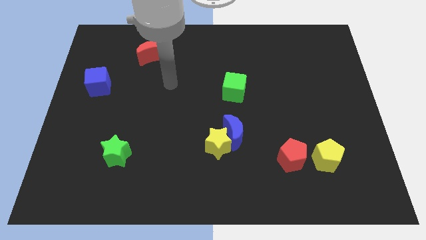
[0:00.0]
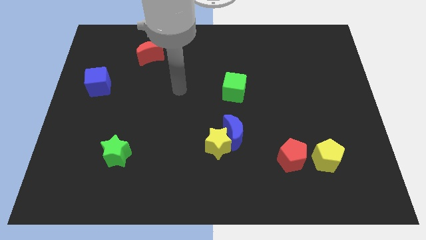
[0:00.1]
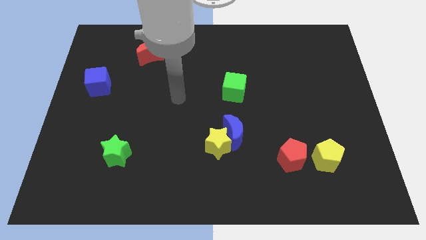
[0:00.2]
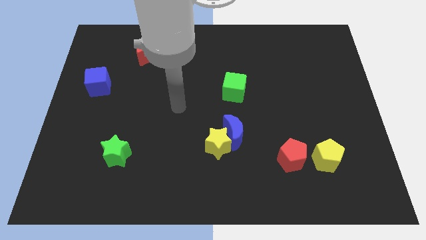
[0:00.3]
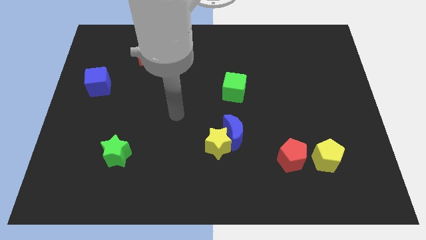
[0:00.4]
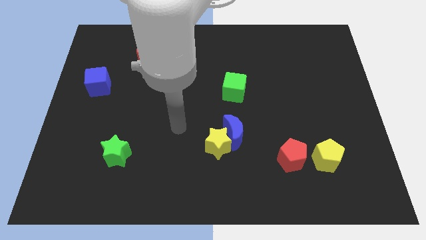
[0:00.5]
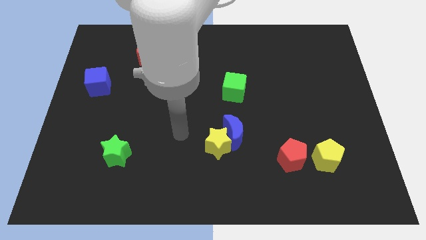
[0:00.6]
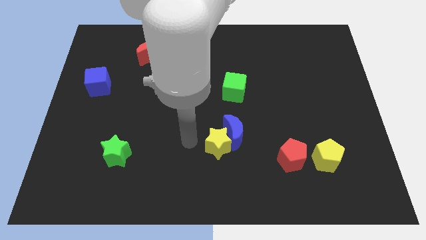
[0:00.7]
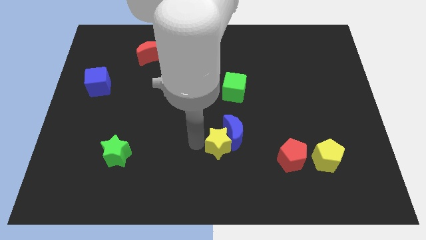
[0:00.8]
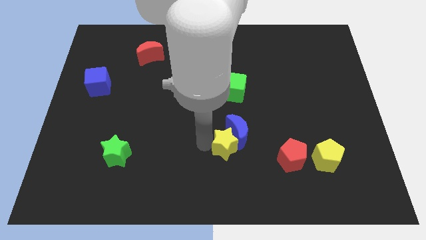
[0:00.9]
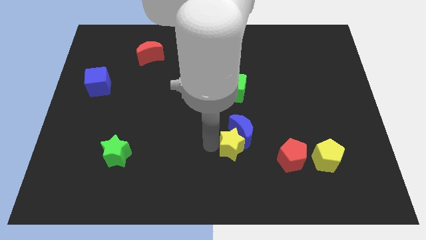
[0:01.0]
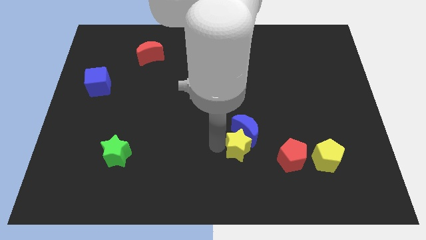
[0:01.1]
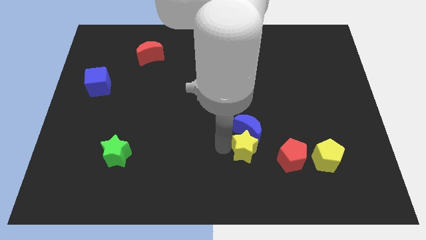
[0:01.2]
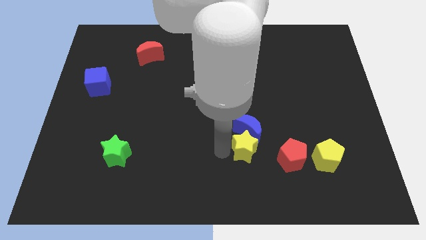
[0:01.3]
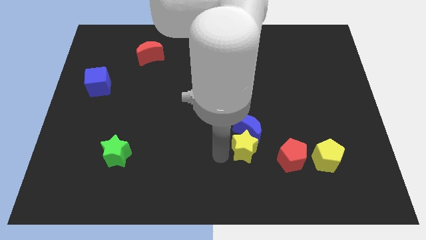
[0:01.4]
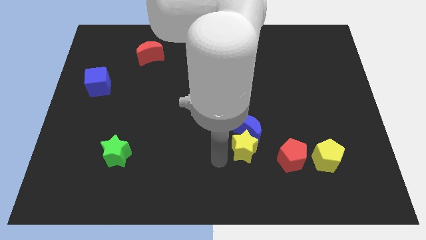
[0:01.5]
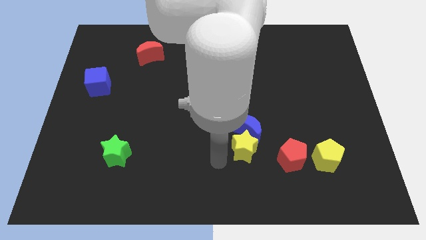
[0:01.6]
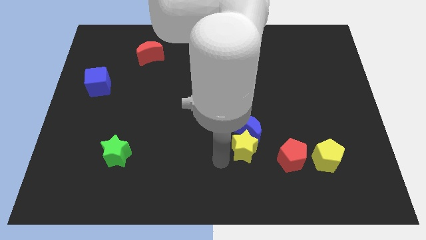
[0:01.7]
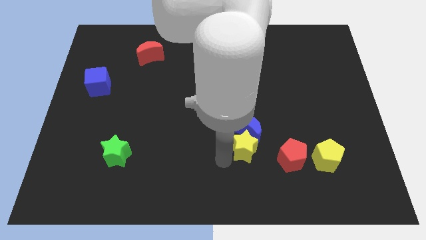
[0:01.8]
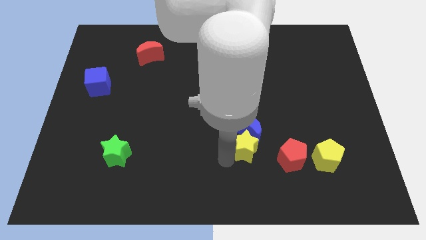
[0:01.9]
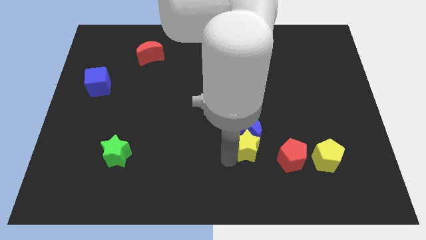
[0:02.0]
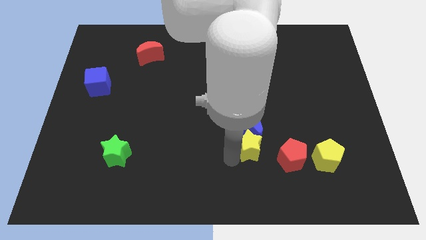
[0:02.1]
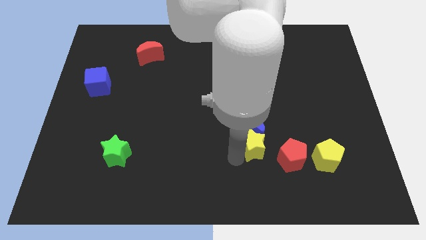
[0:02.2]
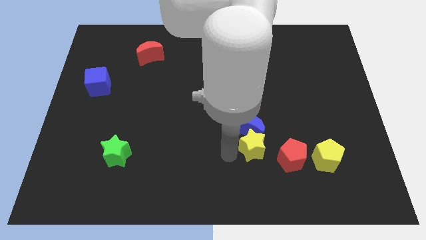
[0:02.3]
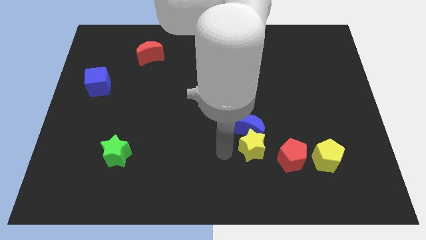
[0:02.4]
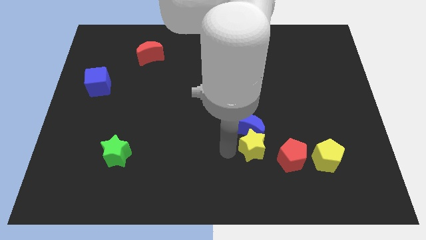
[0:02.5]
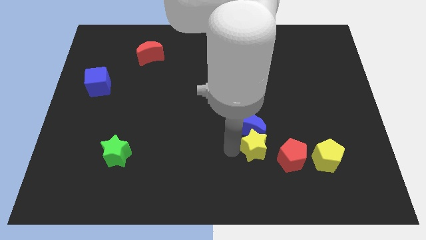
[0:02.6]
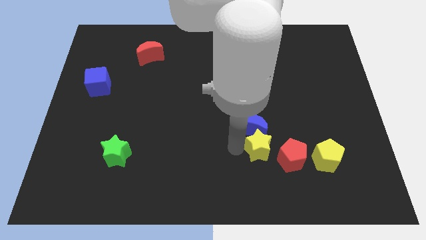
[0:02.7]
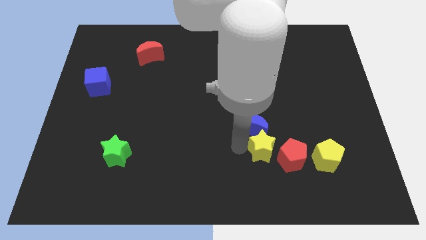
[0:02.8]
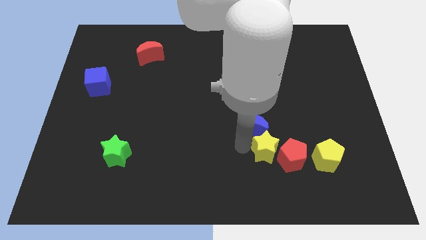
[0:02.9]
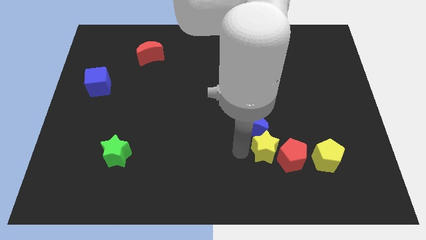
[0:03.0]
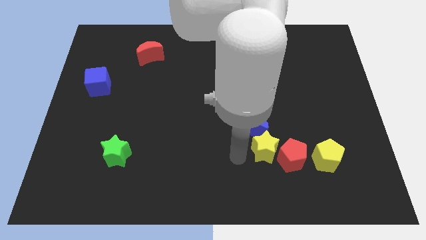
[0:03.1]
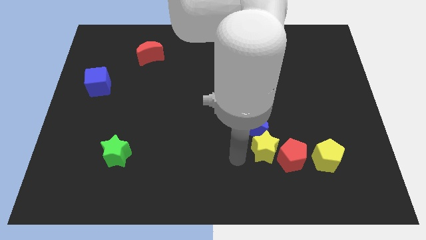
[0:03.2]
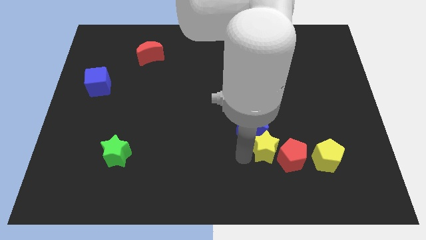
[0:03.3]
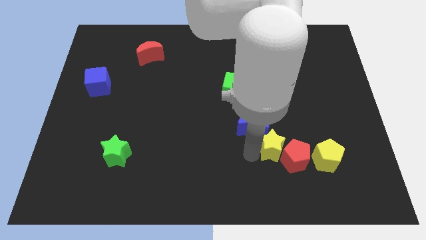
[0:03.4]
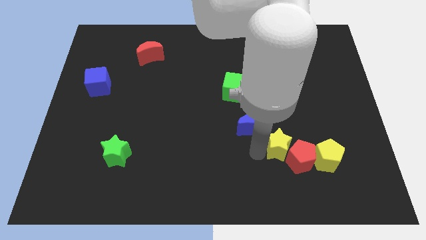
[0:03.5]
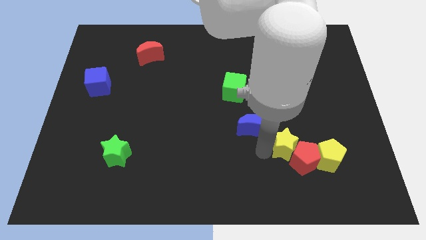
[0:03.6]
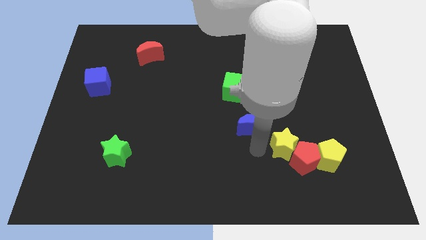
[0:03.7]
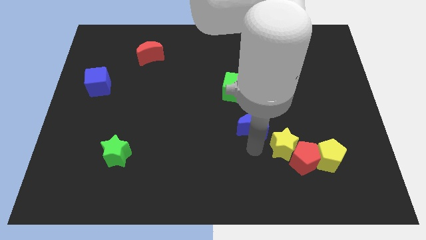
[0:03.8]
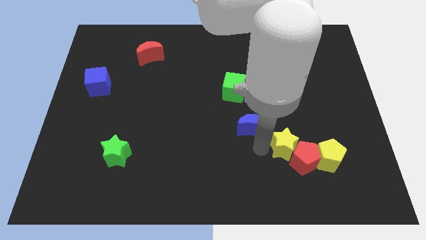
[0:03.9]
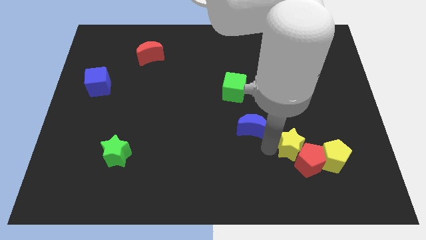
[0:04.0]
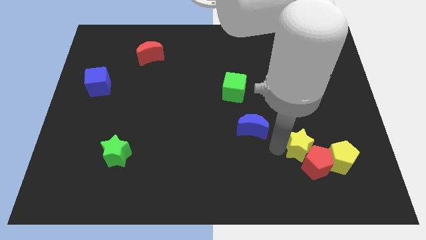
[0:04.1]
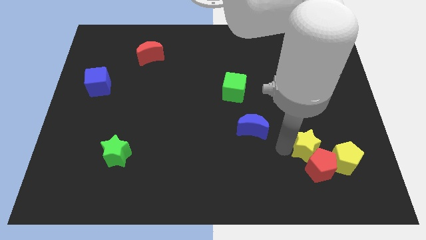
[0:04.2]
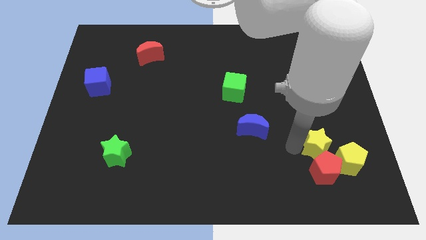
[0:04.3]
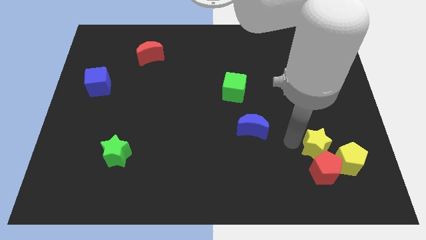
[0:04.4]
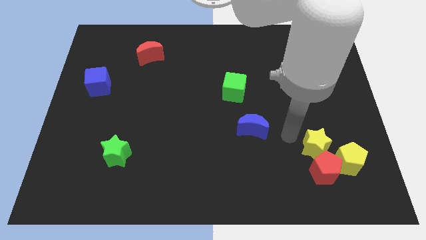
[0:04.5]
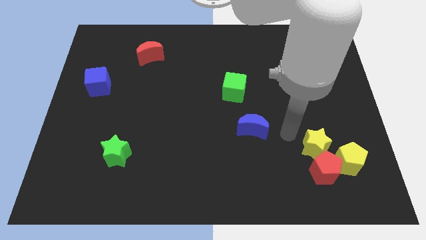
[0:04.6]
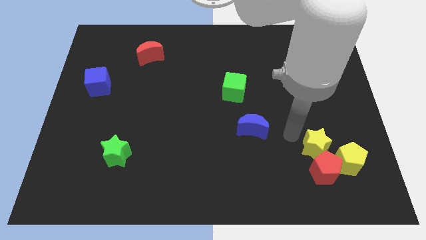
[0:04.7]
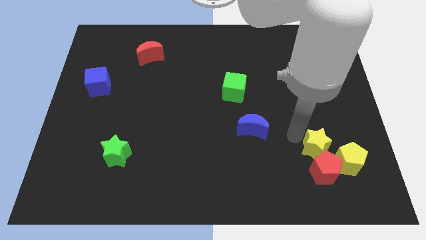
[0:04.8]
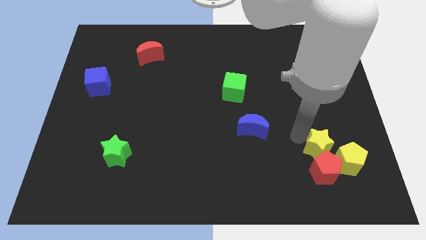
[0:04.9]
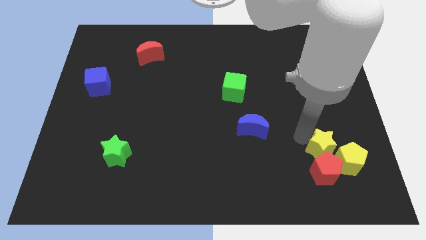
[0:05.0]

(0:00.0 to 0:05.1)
push the yellow star next to the yellow pentagon

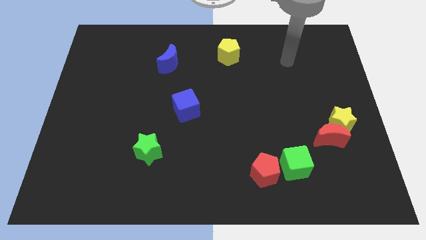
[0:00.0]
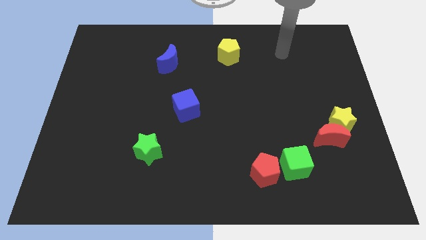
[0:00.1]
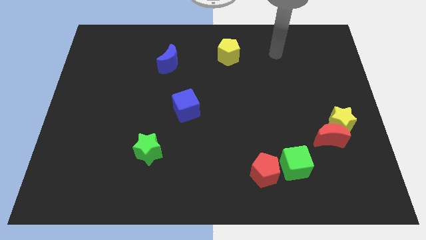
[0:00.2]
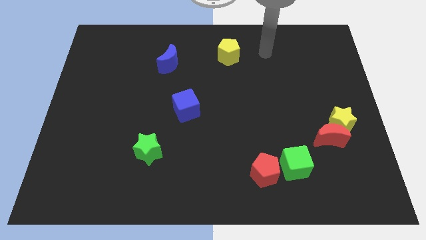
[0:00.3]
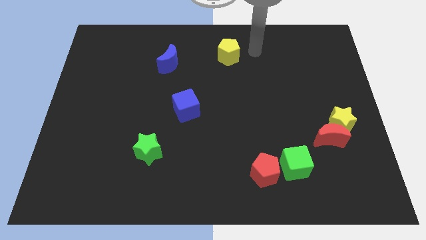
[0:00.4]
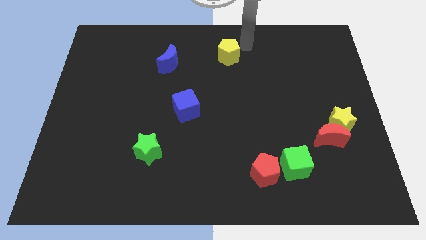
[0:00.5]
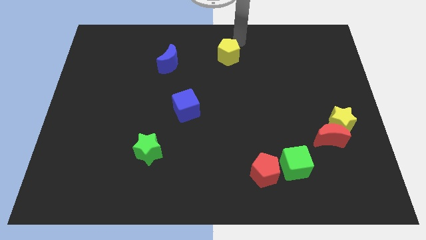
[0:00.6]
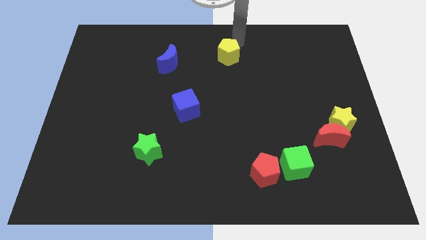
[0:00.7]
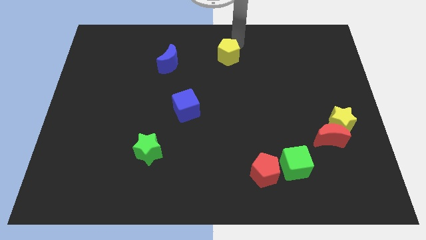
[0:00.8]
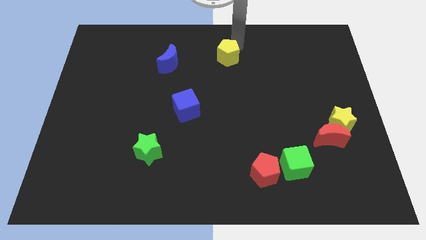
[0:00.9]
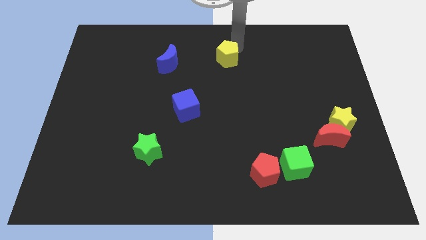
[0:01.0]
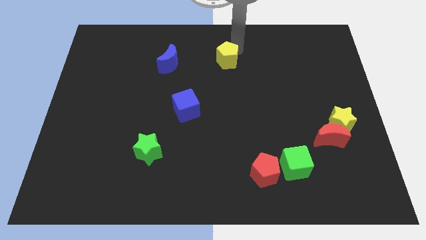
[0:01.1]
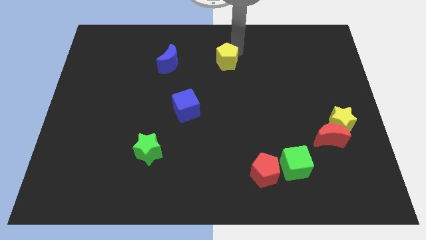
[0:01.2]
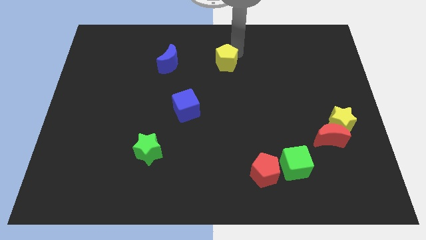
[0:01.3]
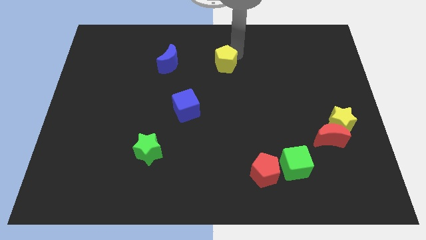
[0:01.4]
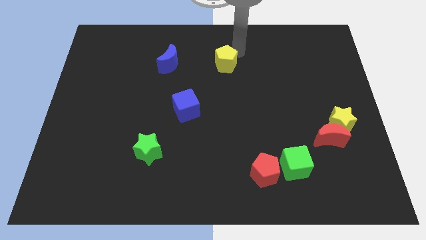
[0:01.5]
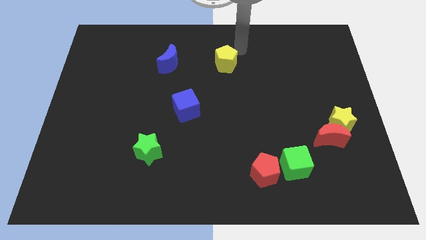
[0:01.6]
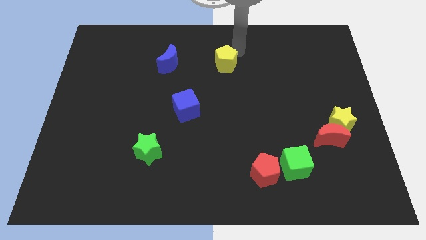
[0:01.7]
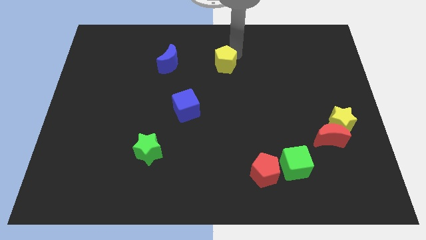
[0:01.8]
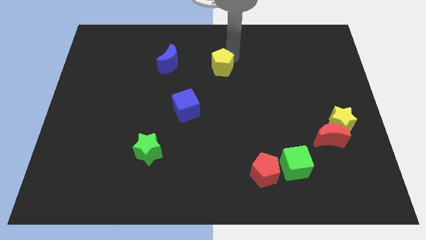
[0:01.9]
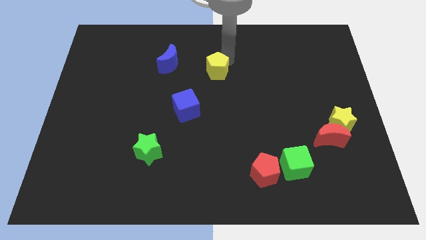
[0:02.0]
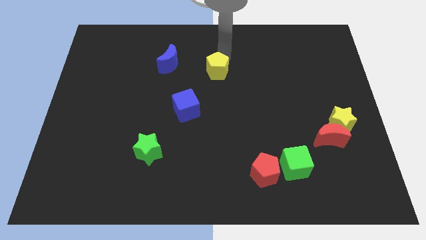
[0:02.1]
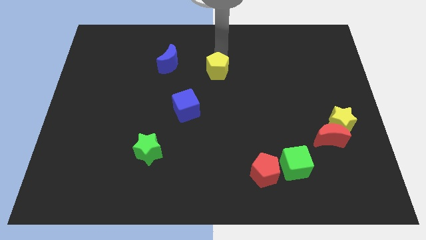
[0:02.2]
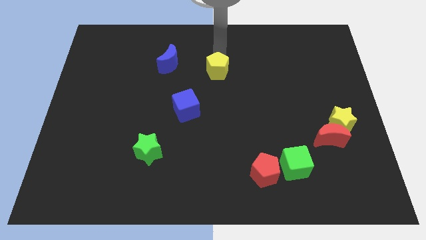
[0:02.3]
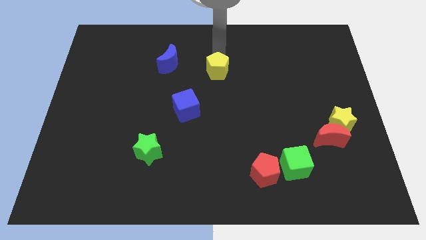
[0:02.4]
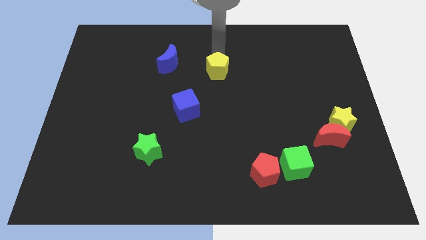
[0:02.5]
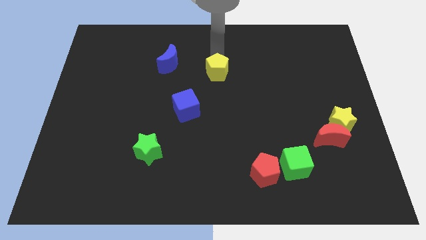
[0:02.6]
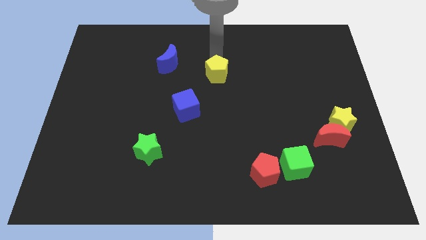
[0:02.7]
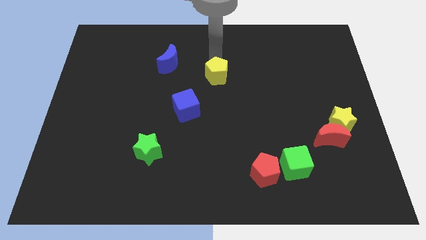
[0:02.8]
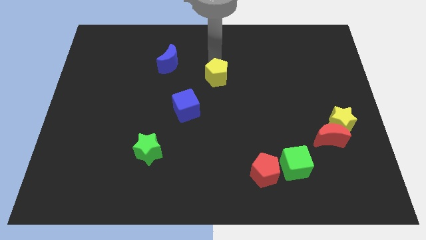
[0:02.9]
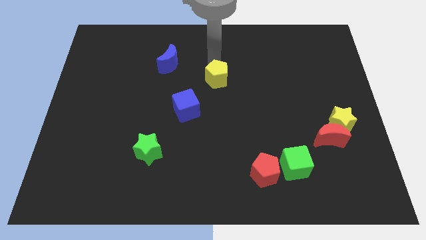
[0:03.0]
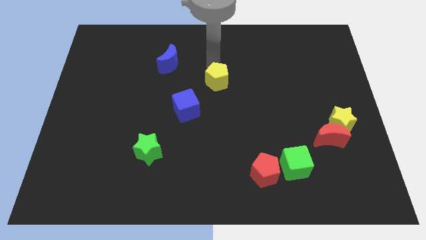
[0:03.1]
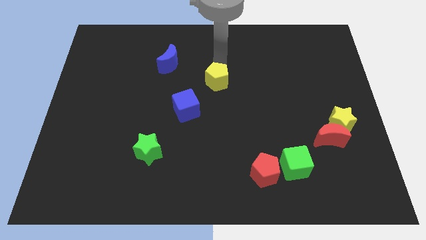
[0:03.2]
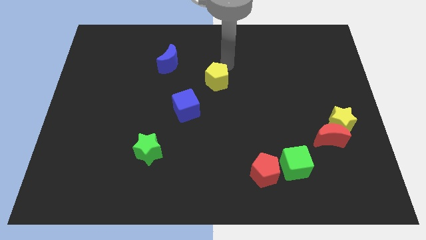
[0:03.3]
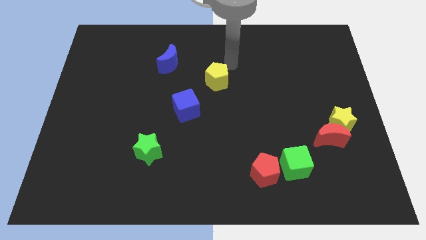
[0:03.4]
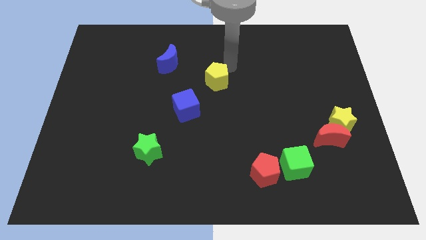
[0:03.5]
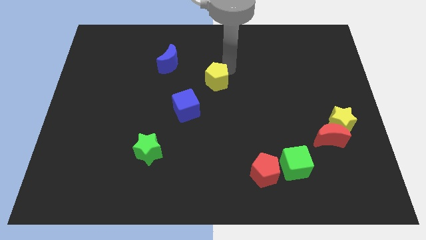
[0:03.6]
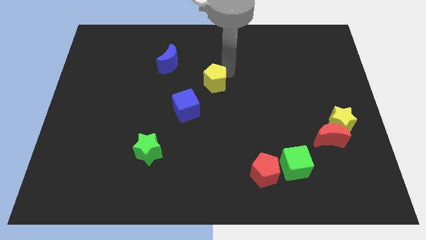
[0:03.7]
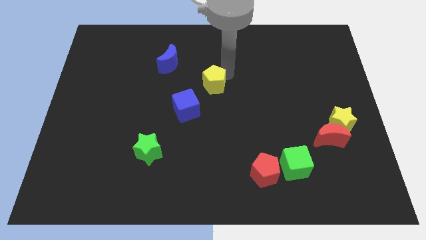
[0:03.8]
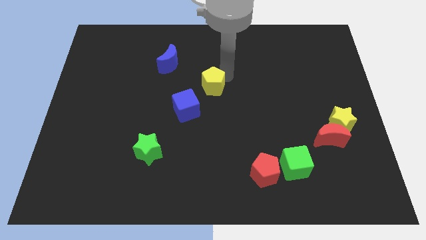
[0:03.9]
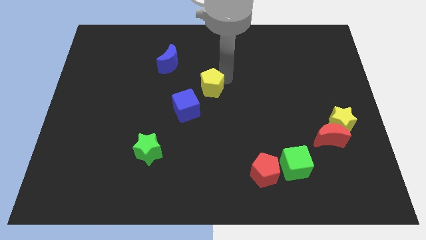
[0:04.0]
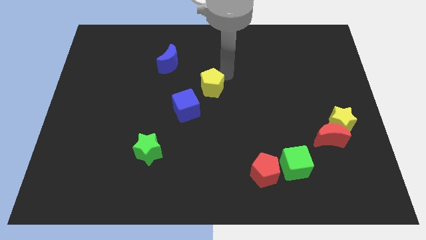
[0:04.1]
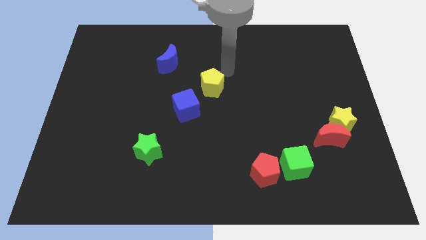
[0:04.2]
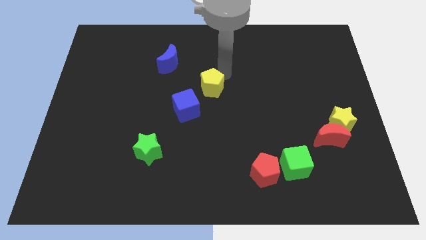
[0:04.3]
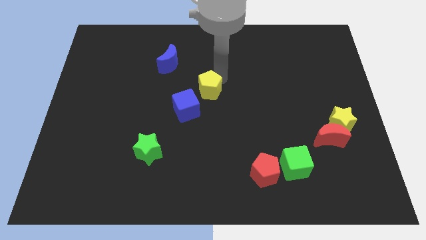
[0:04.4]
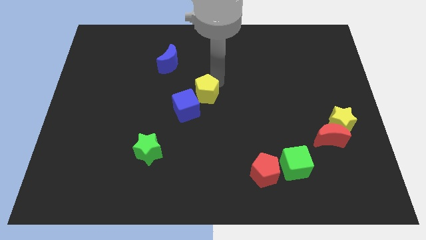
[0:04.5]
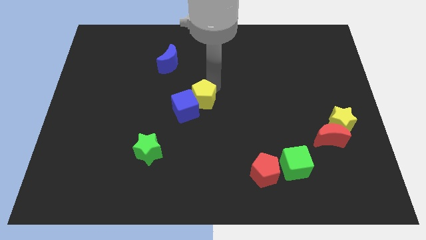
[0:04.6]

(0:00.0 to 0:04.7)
put the yellow pentagon to the blue cube
